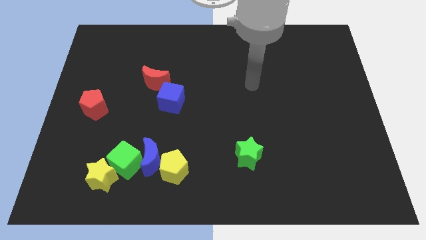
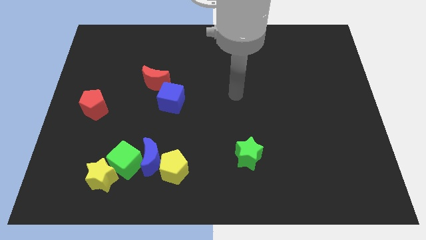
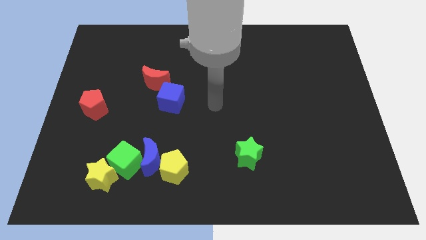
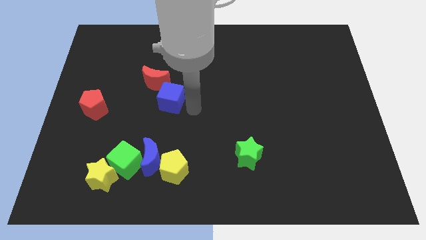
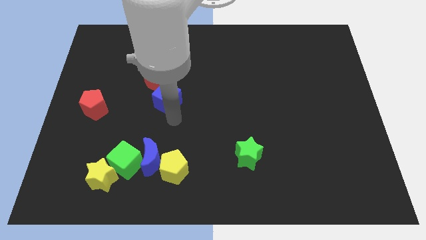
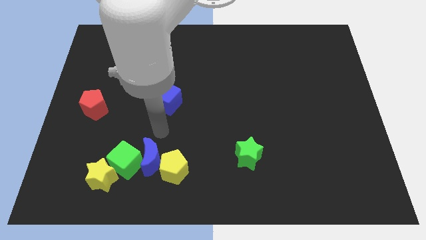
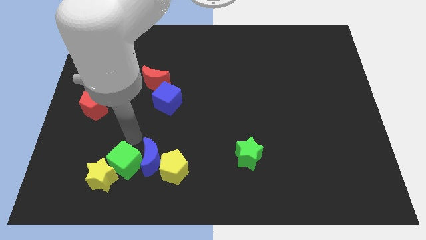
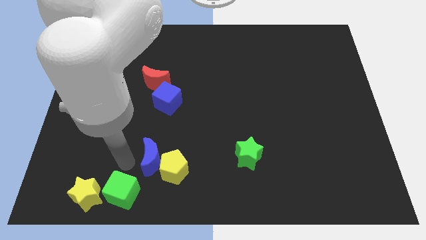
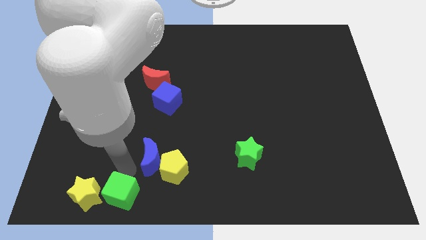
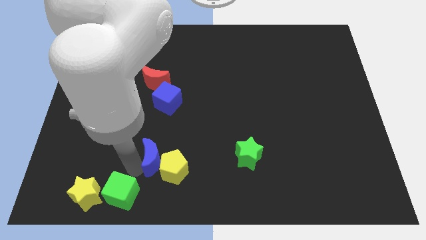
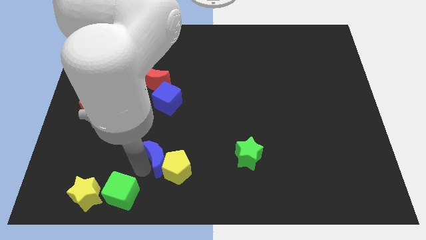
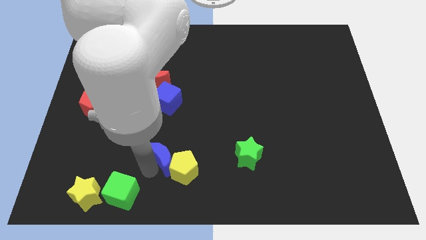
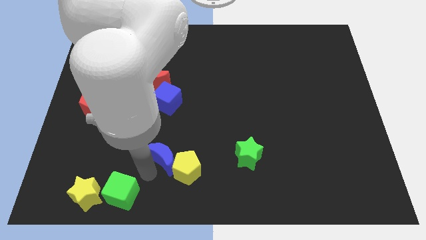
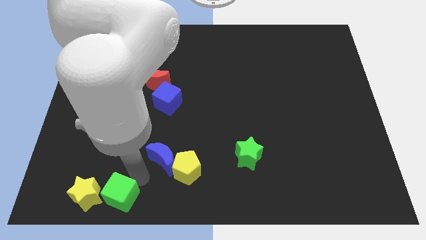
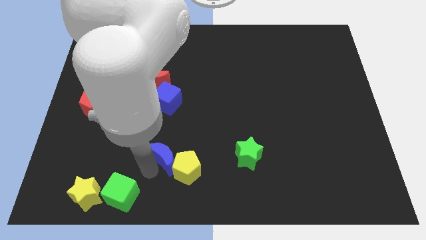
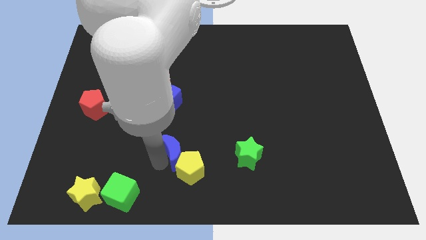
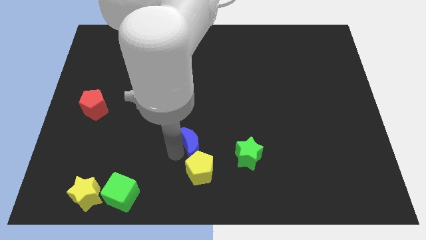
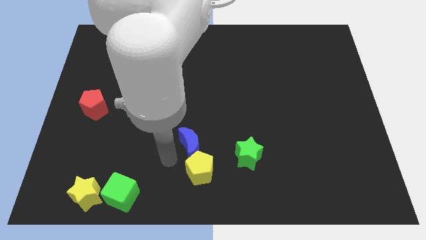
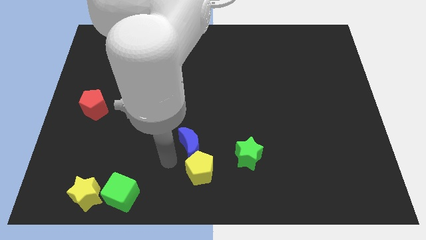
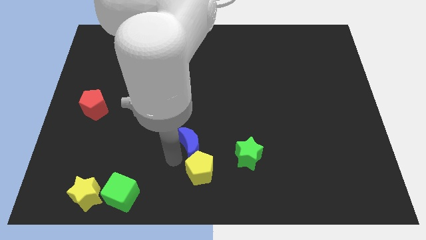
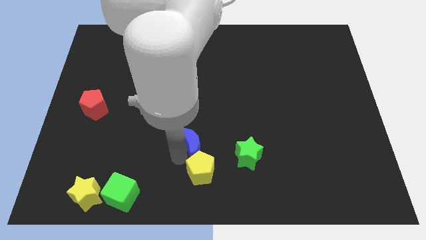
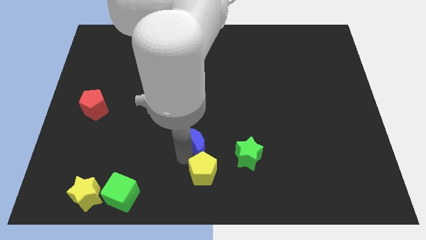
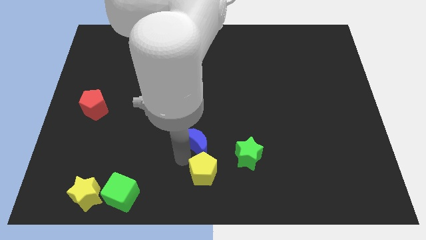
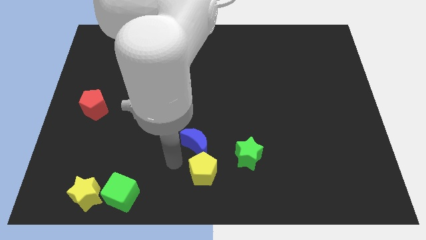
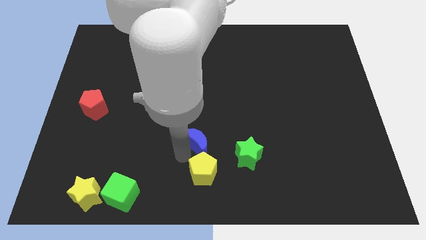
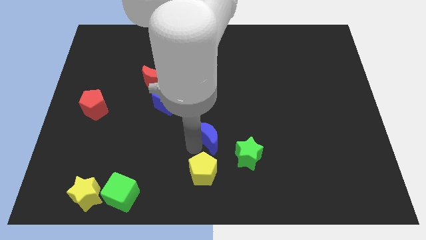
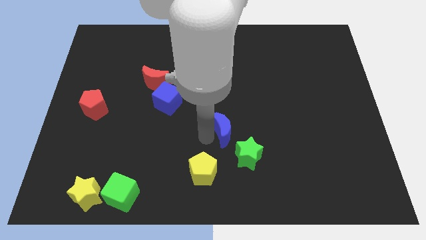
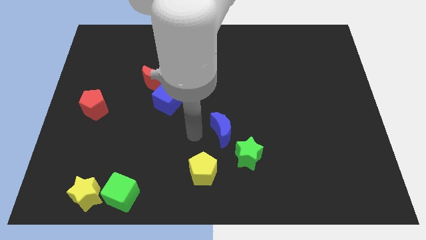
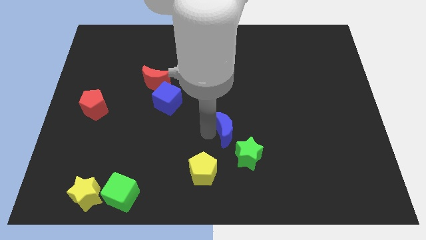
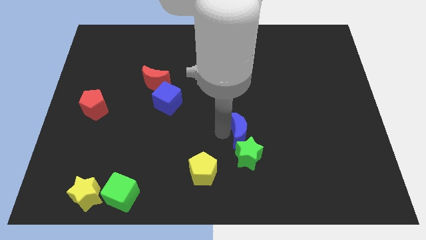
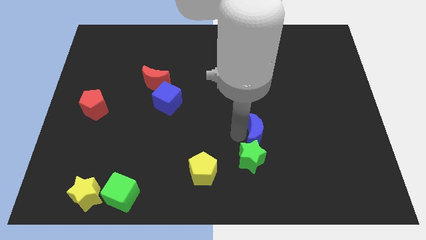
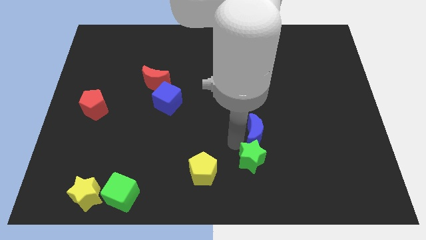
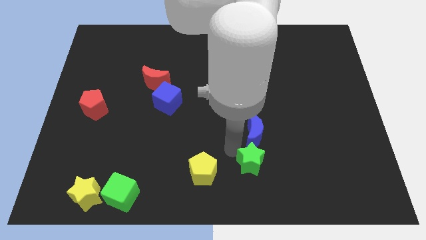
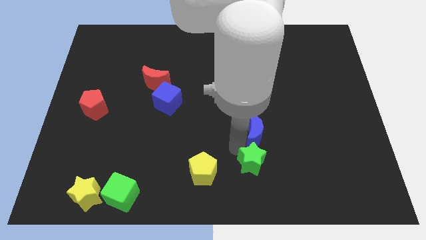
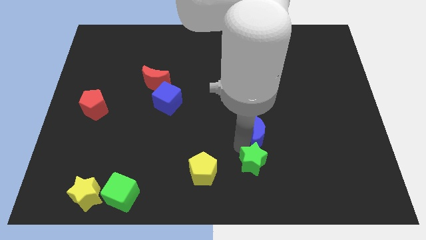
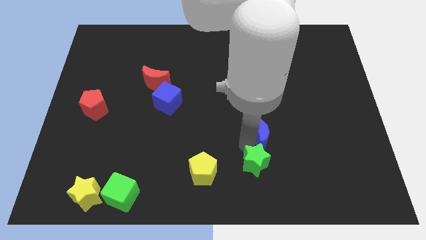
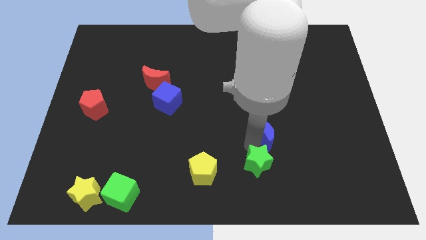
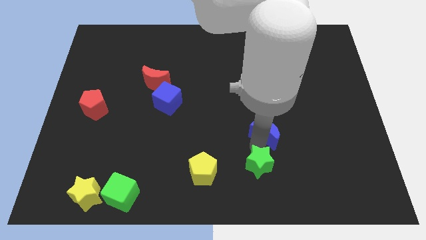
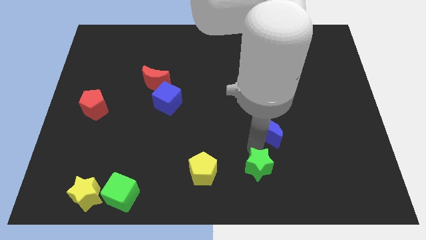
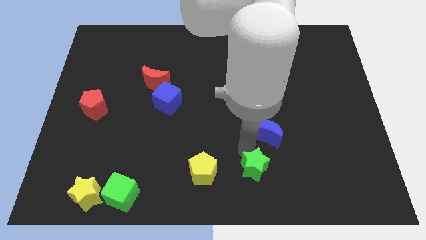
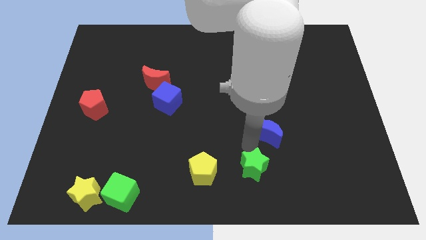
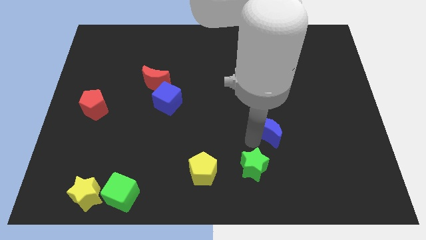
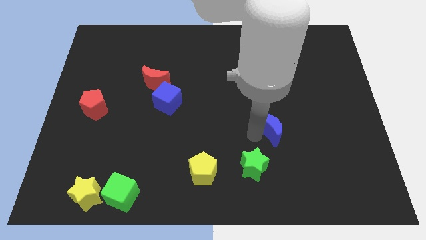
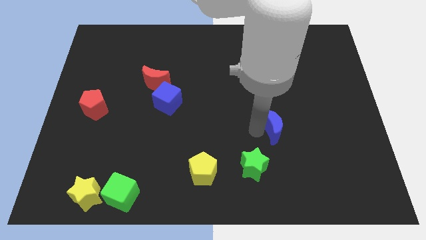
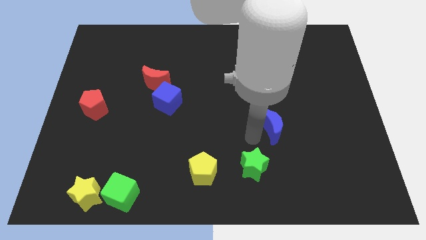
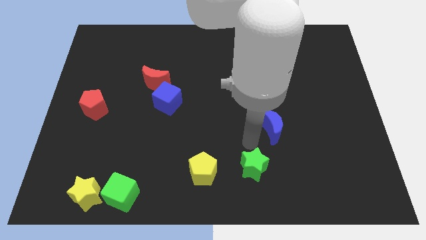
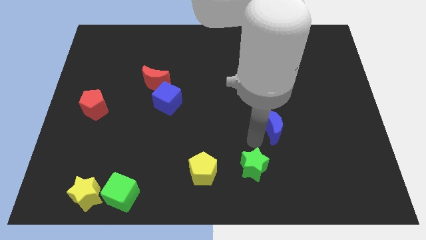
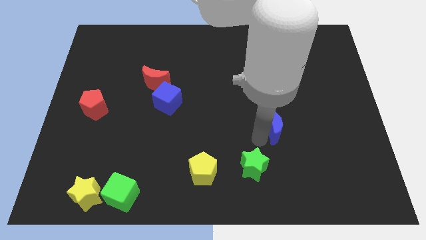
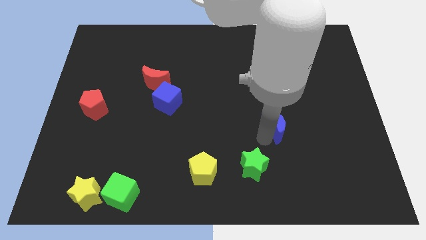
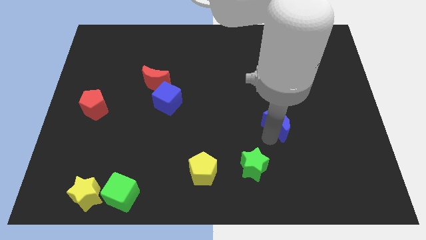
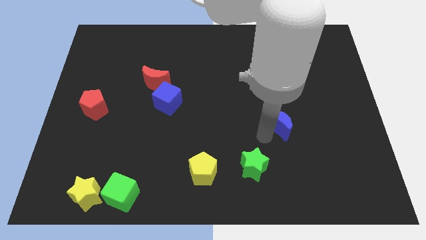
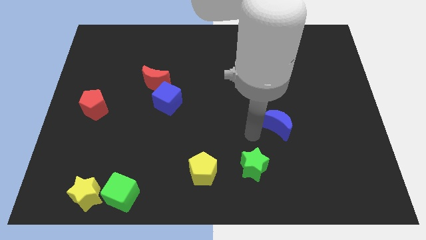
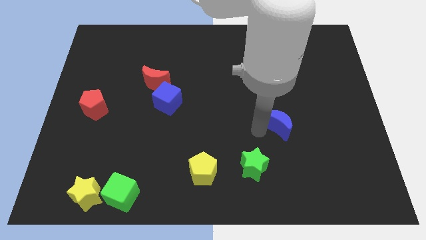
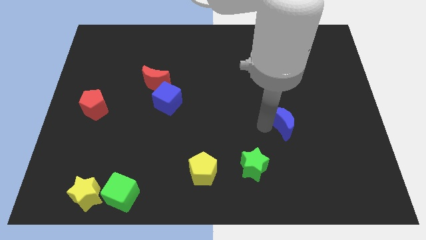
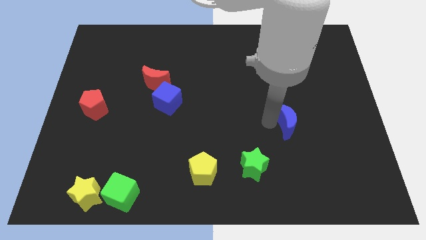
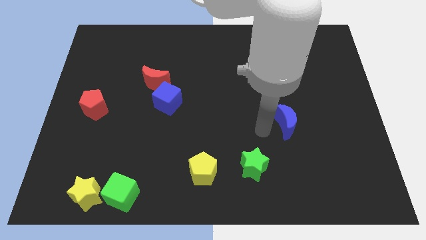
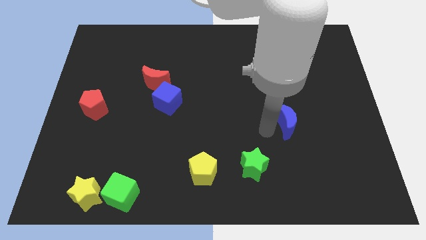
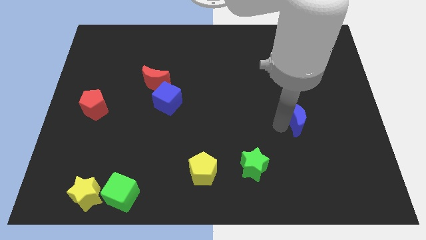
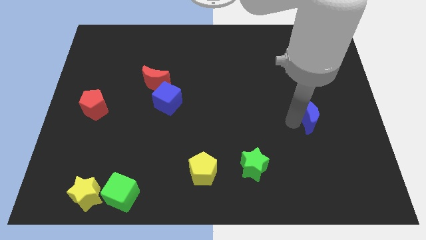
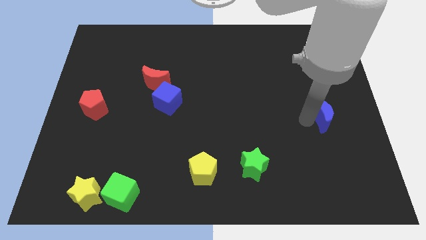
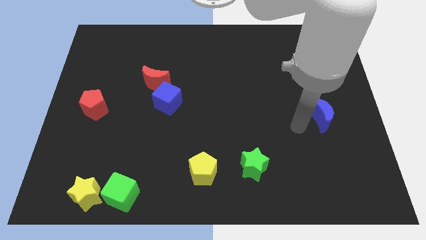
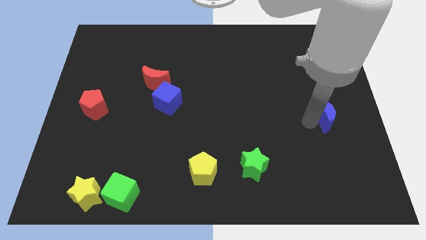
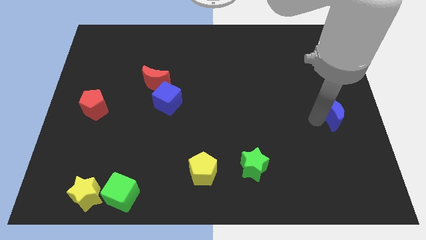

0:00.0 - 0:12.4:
push the blue moon to the right side
